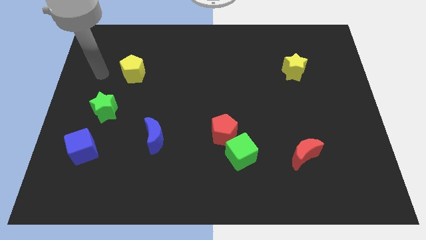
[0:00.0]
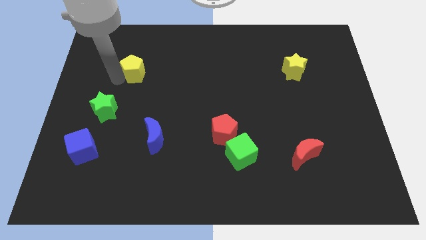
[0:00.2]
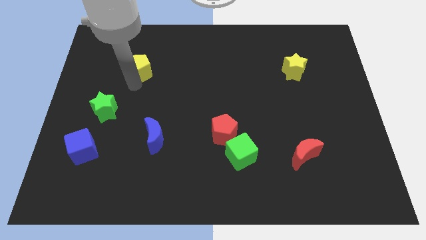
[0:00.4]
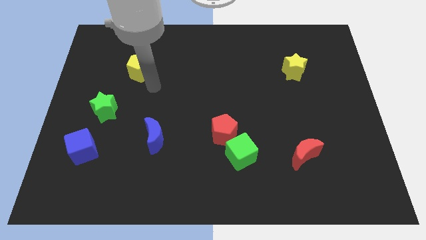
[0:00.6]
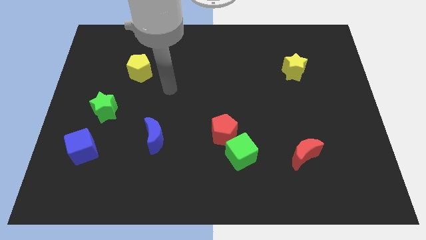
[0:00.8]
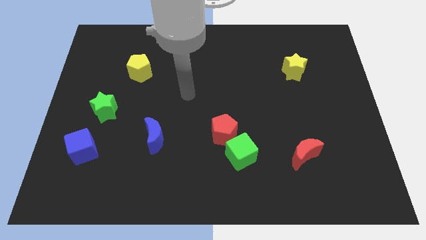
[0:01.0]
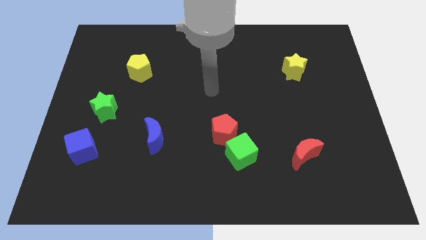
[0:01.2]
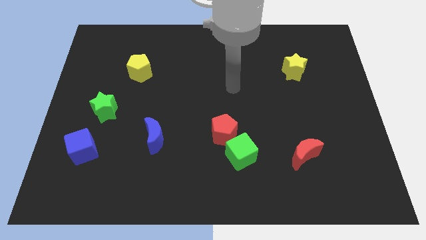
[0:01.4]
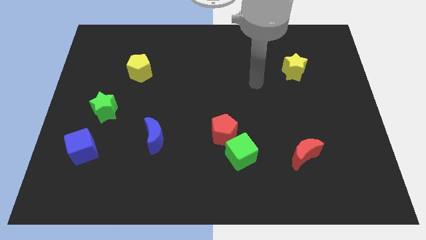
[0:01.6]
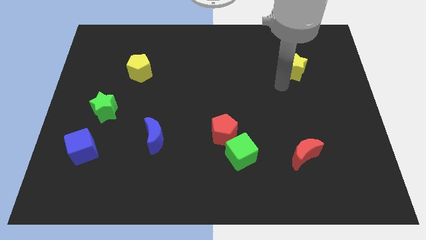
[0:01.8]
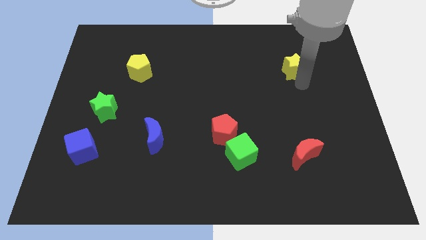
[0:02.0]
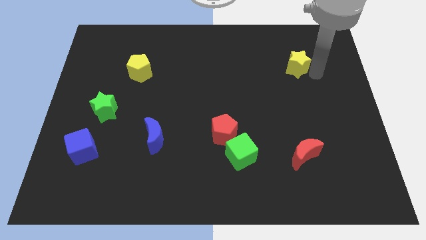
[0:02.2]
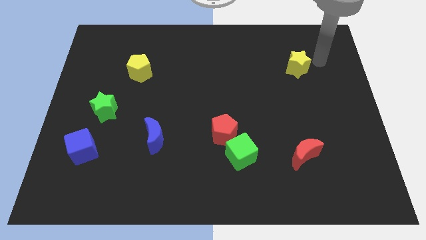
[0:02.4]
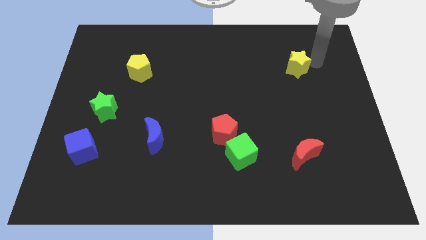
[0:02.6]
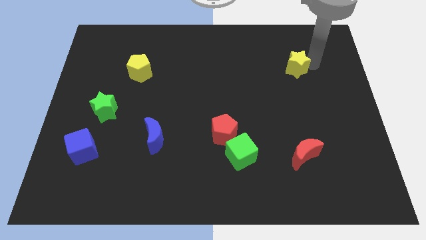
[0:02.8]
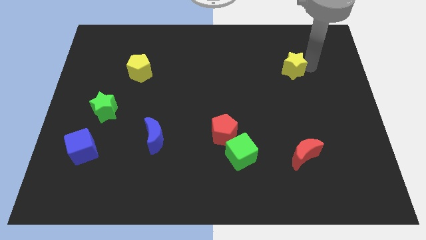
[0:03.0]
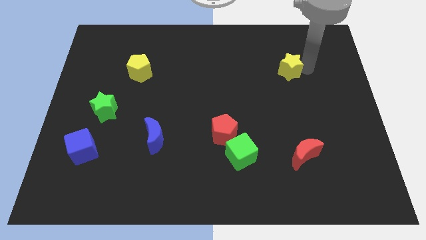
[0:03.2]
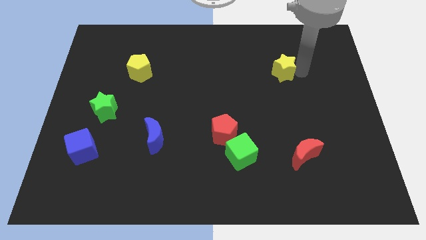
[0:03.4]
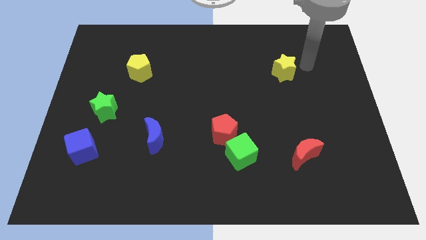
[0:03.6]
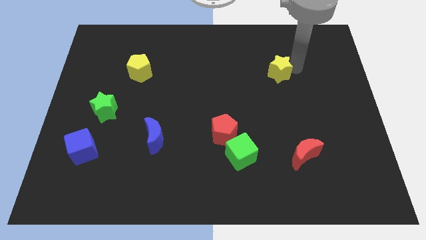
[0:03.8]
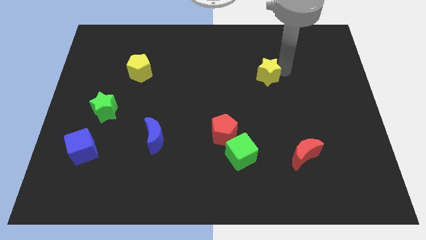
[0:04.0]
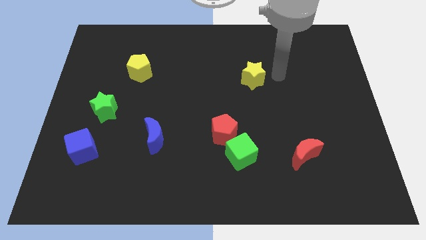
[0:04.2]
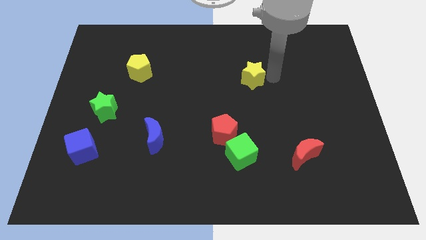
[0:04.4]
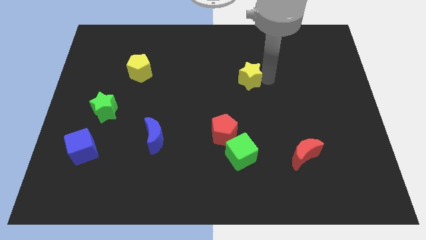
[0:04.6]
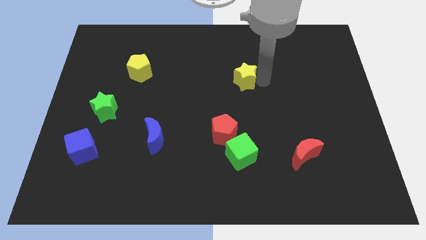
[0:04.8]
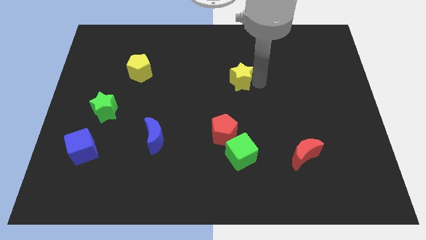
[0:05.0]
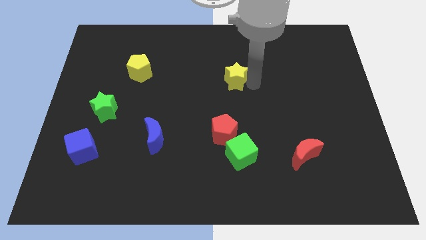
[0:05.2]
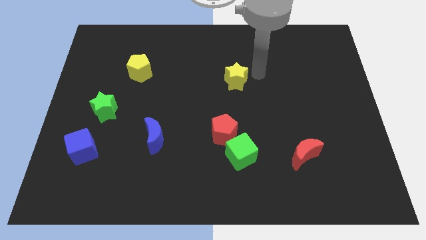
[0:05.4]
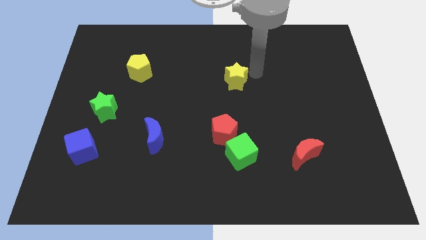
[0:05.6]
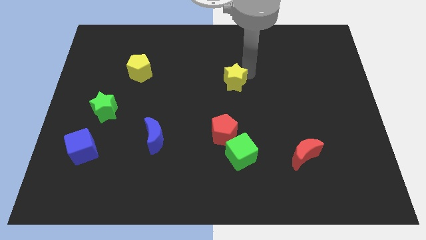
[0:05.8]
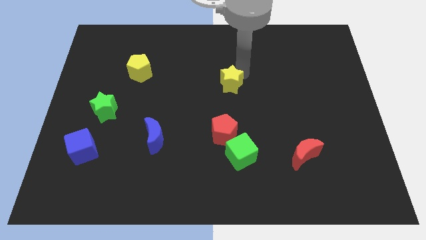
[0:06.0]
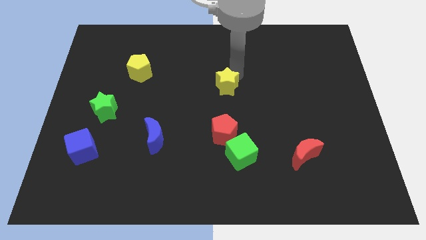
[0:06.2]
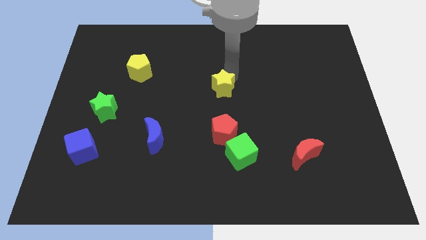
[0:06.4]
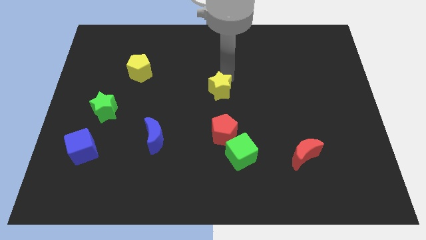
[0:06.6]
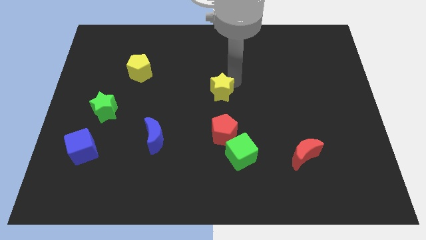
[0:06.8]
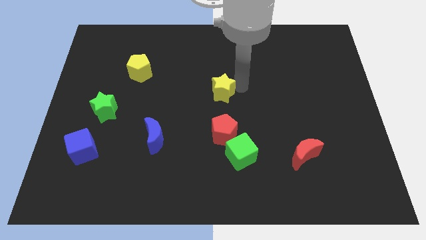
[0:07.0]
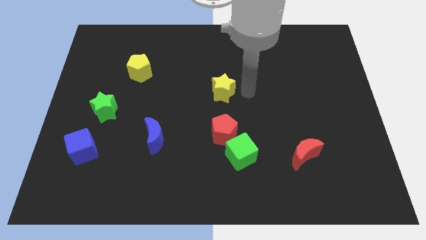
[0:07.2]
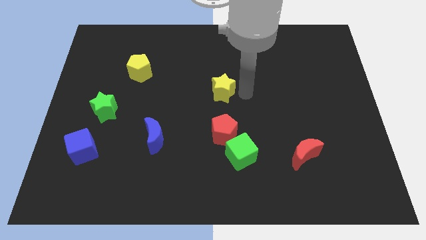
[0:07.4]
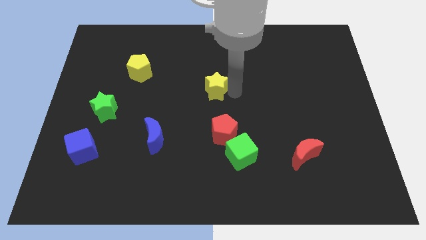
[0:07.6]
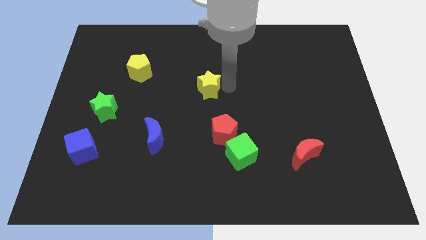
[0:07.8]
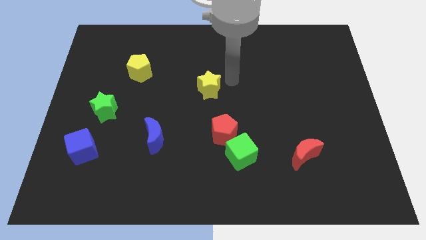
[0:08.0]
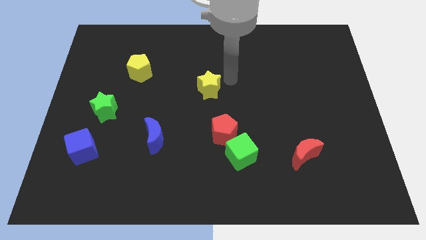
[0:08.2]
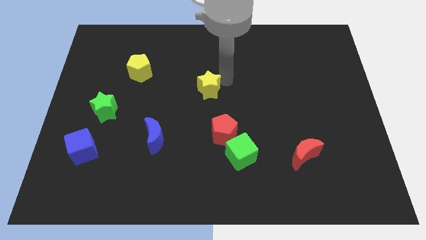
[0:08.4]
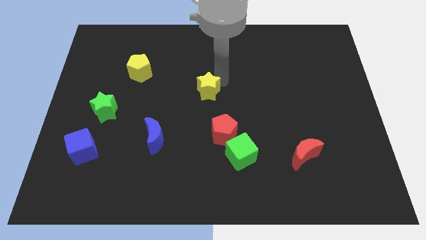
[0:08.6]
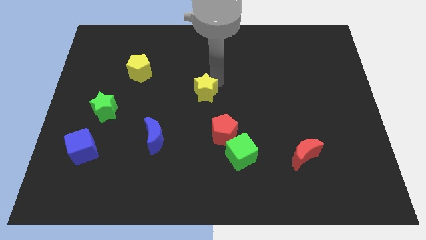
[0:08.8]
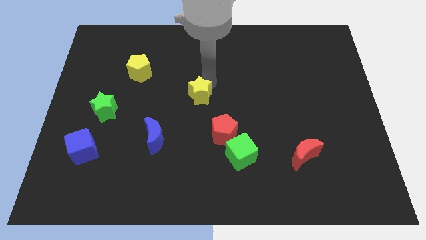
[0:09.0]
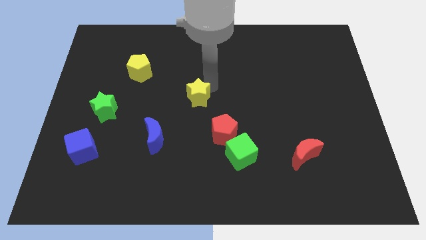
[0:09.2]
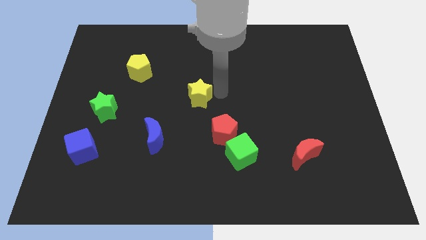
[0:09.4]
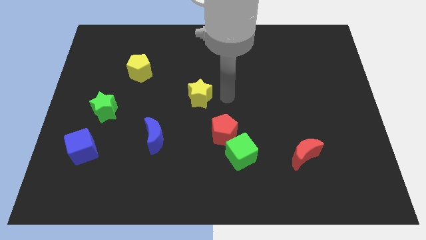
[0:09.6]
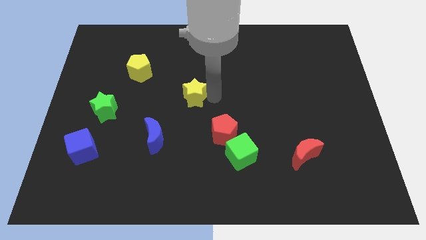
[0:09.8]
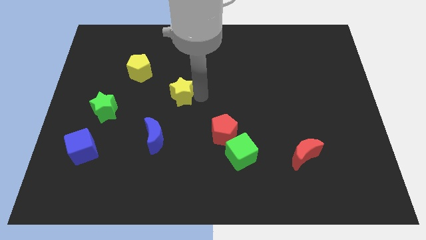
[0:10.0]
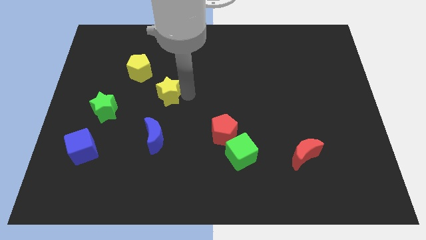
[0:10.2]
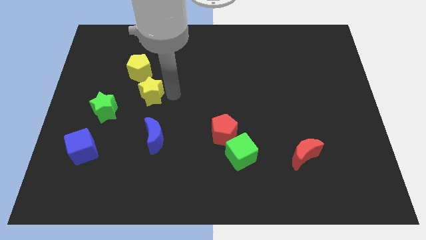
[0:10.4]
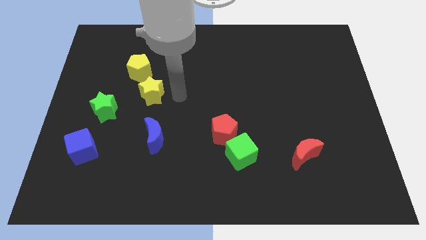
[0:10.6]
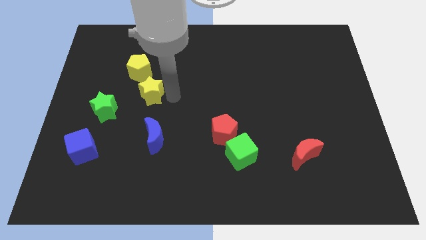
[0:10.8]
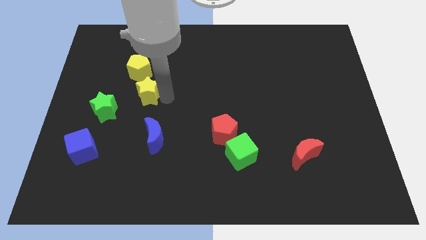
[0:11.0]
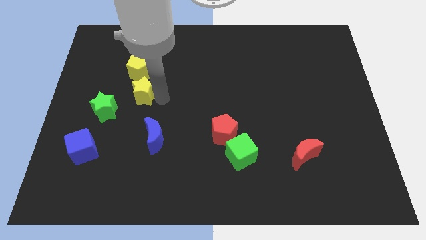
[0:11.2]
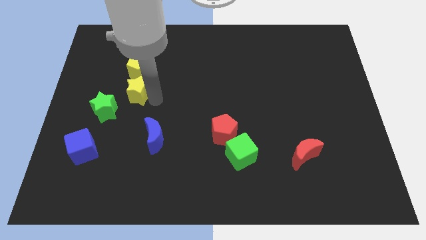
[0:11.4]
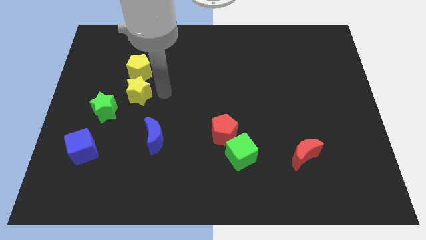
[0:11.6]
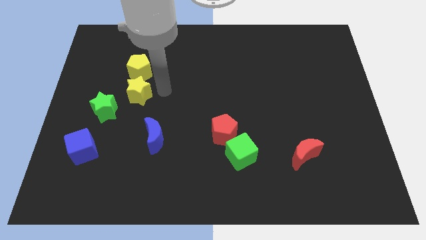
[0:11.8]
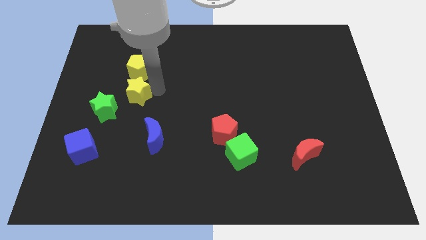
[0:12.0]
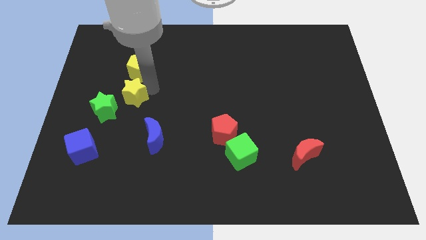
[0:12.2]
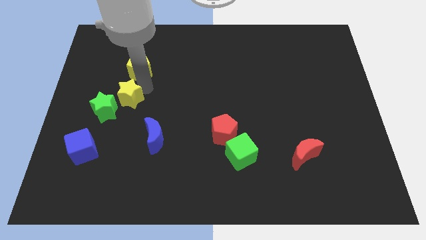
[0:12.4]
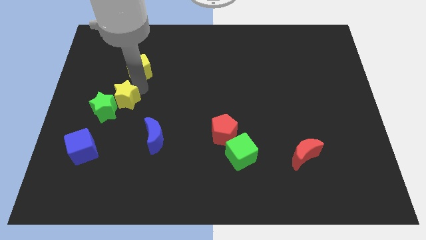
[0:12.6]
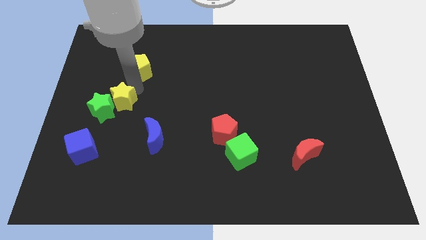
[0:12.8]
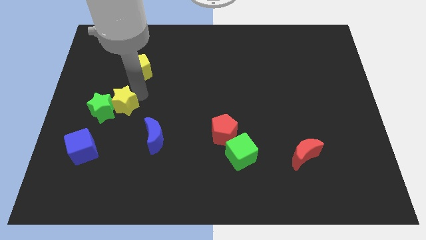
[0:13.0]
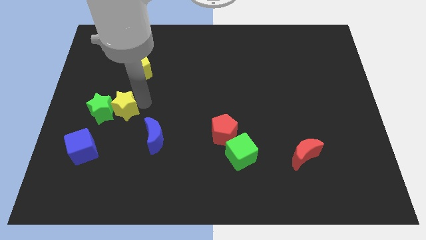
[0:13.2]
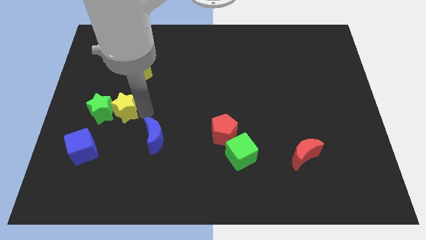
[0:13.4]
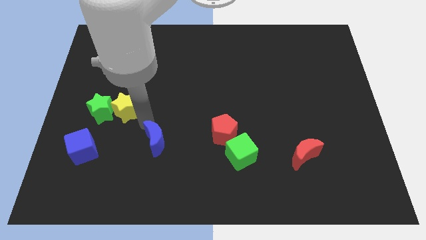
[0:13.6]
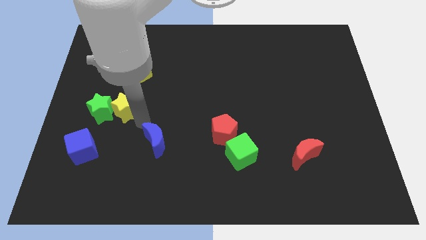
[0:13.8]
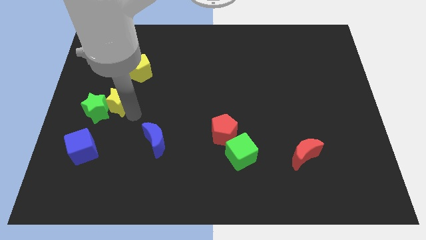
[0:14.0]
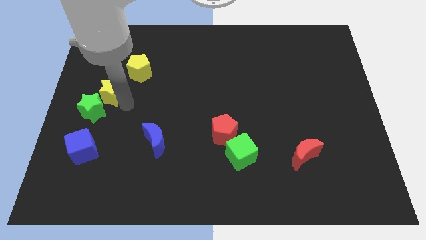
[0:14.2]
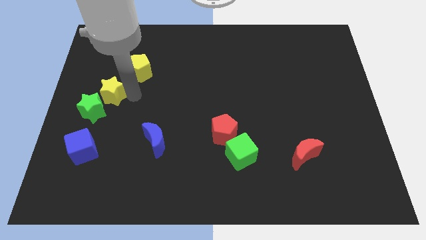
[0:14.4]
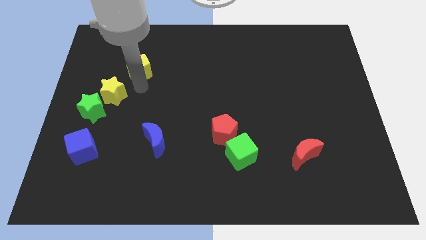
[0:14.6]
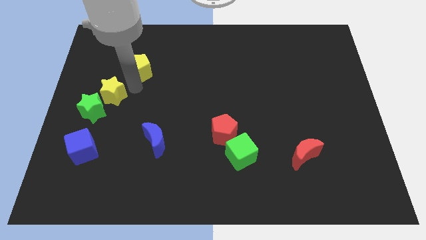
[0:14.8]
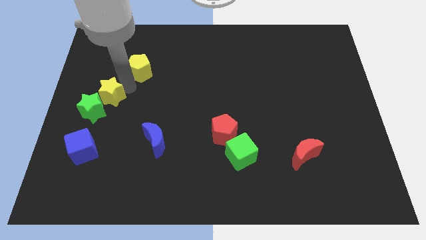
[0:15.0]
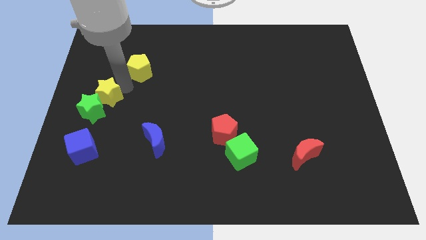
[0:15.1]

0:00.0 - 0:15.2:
move the yellow star to the center left
